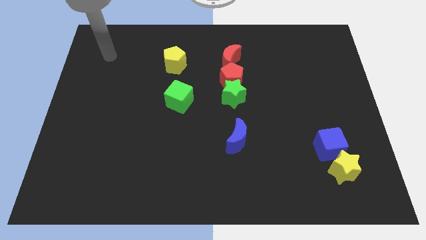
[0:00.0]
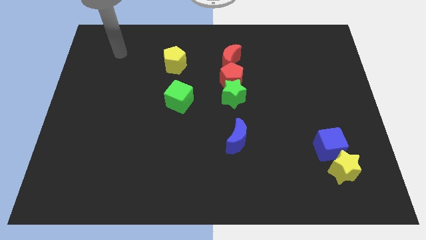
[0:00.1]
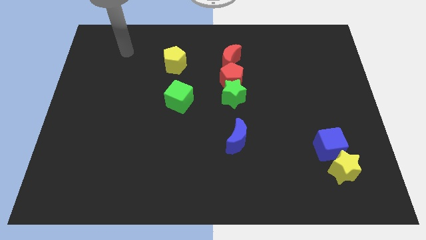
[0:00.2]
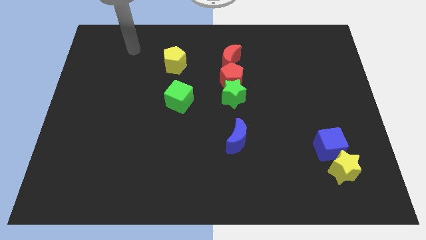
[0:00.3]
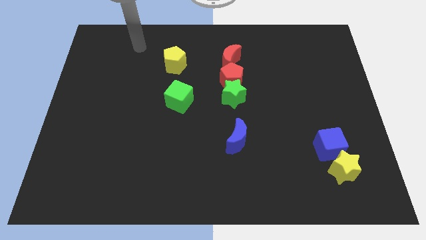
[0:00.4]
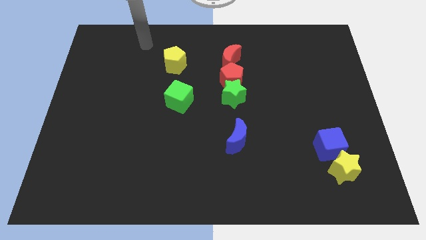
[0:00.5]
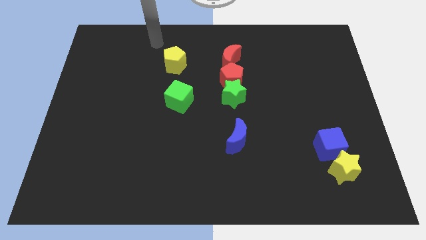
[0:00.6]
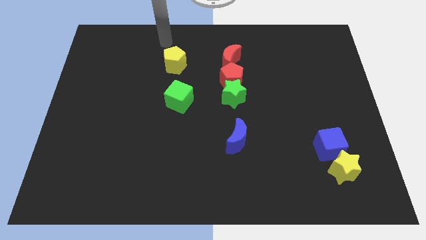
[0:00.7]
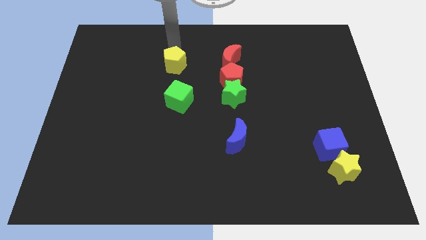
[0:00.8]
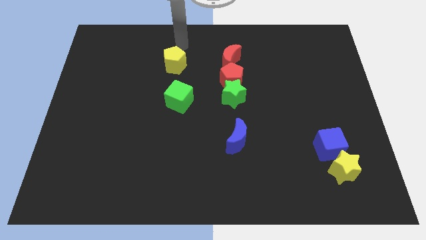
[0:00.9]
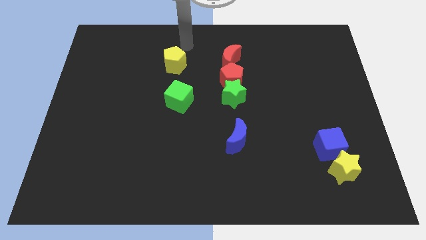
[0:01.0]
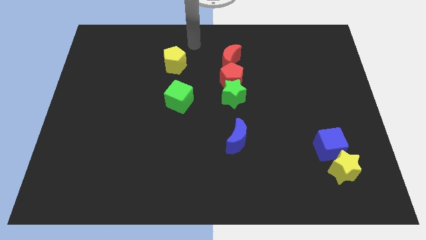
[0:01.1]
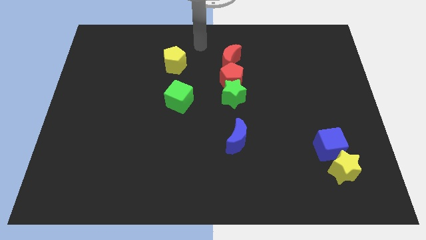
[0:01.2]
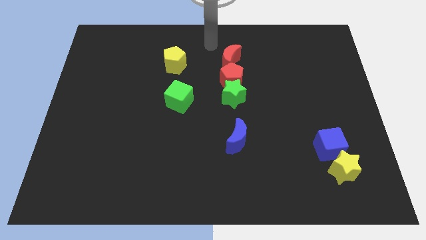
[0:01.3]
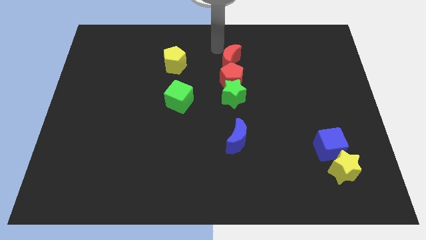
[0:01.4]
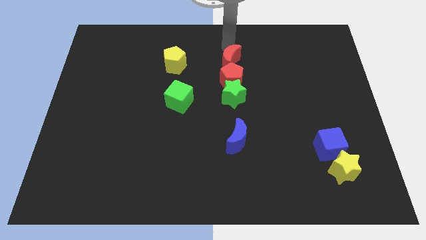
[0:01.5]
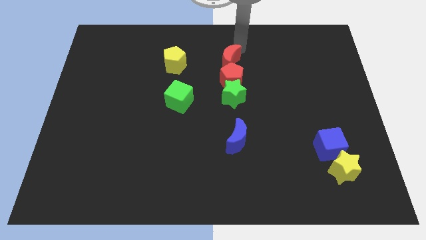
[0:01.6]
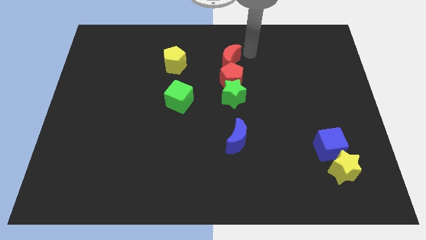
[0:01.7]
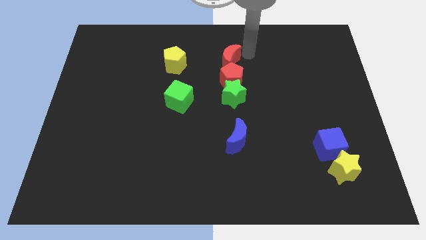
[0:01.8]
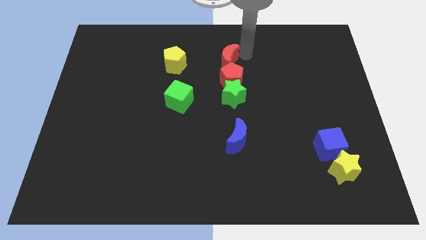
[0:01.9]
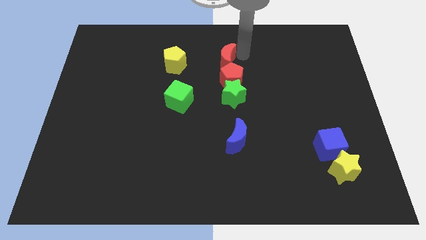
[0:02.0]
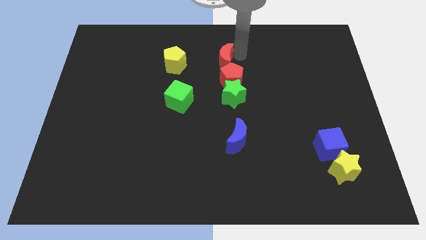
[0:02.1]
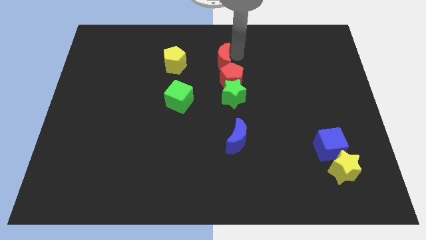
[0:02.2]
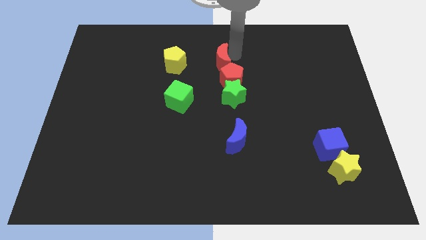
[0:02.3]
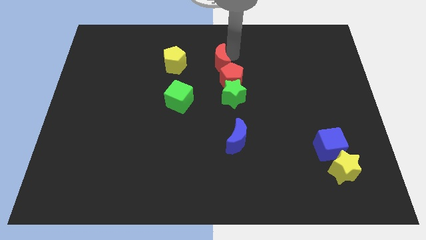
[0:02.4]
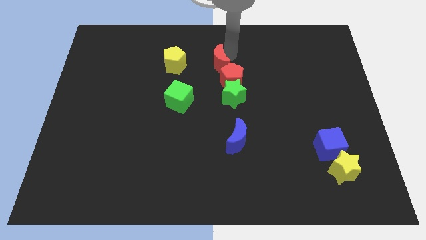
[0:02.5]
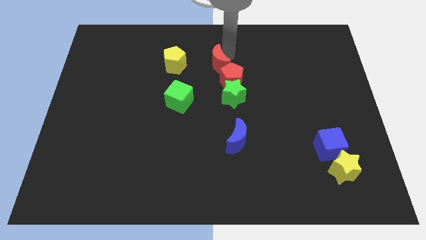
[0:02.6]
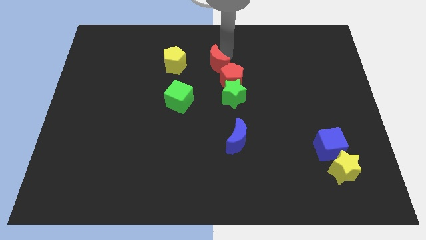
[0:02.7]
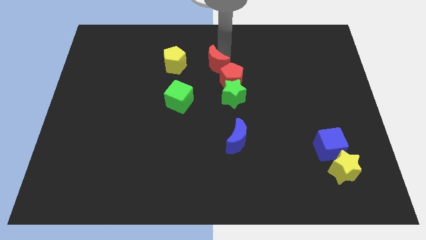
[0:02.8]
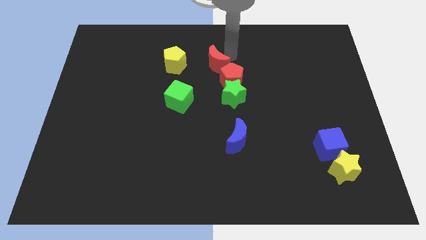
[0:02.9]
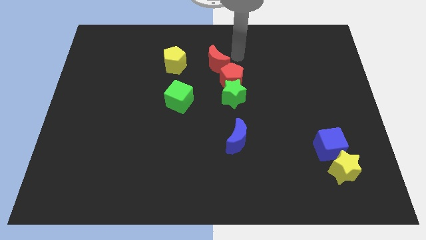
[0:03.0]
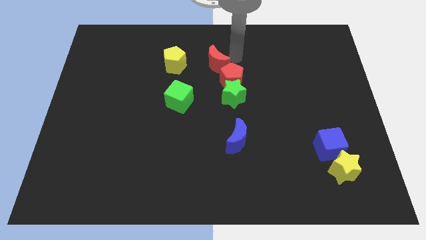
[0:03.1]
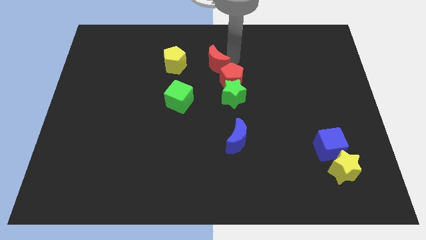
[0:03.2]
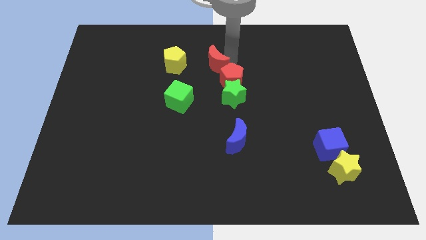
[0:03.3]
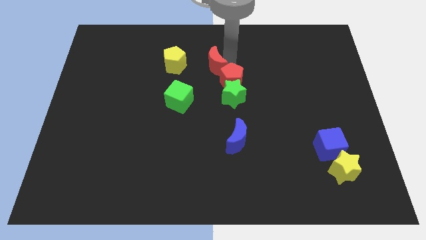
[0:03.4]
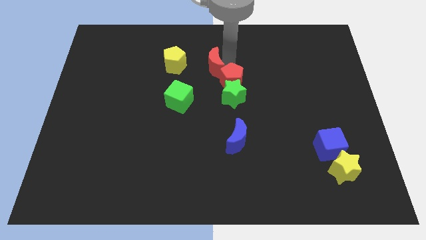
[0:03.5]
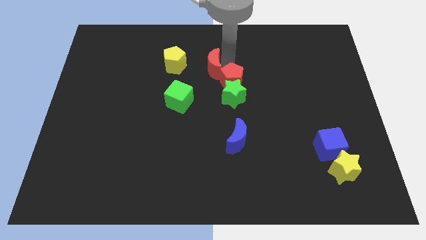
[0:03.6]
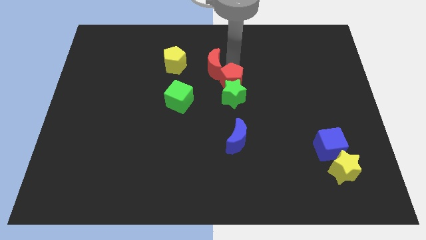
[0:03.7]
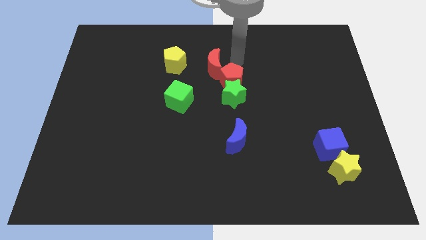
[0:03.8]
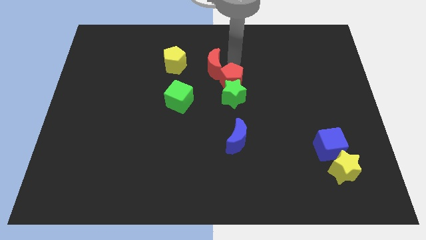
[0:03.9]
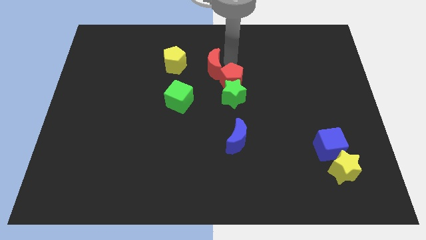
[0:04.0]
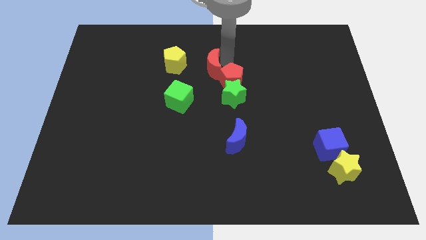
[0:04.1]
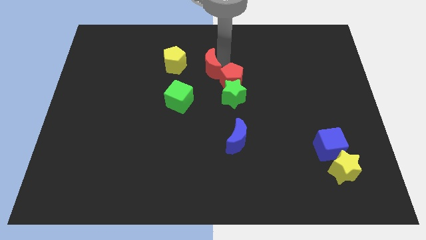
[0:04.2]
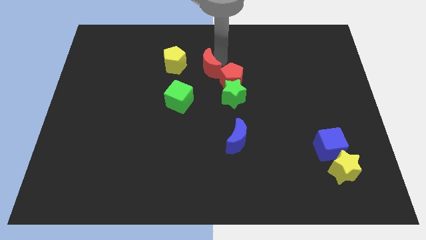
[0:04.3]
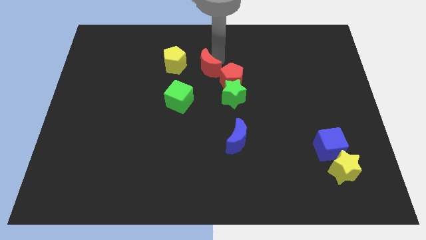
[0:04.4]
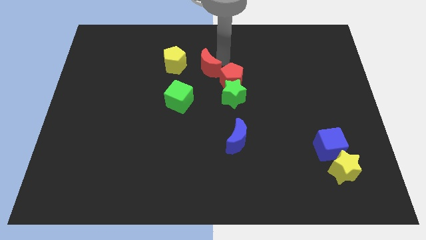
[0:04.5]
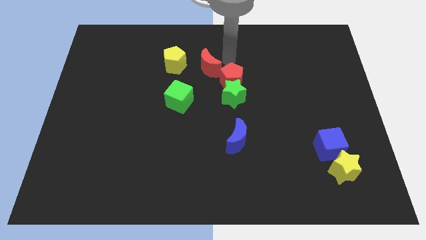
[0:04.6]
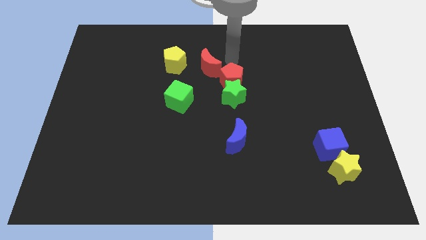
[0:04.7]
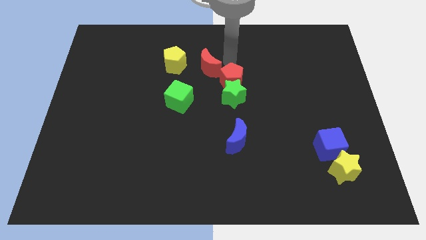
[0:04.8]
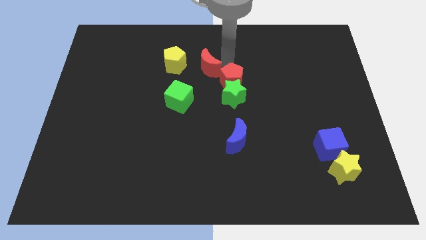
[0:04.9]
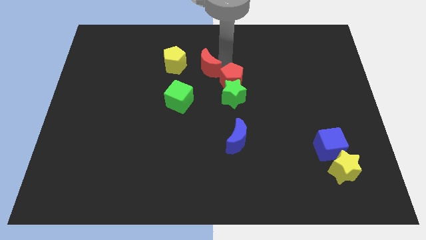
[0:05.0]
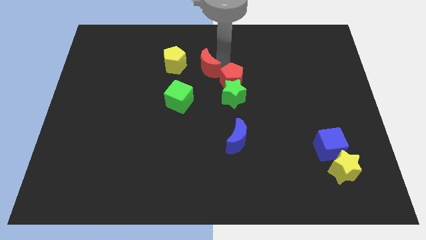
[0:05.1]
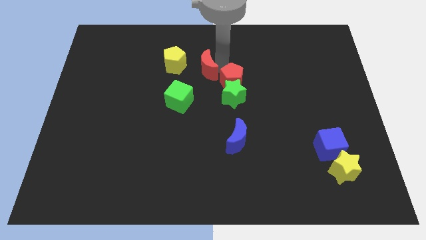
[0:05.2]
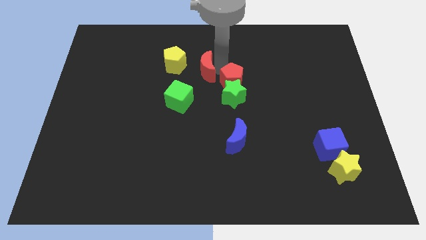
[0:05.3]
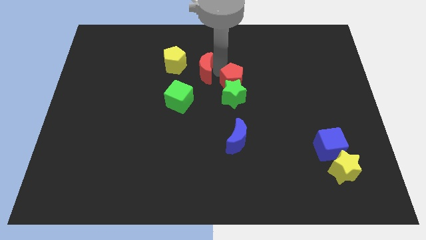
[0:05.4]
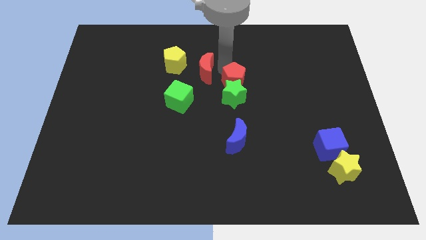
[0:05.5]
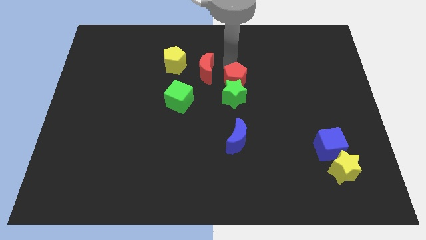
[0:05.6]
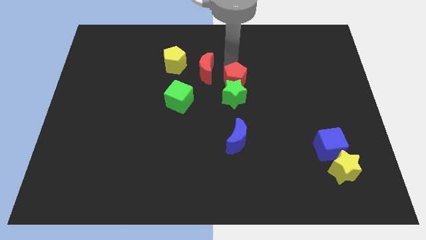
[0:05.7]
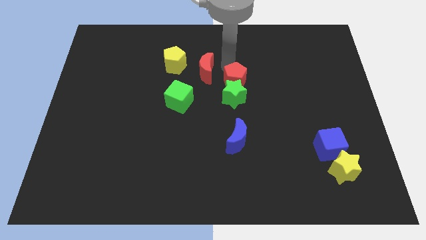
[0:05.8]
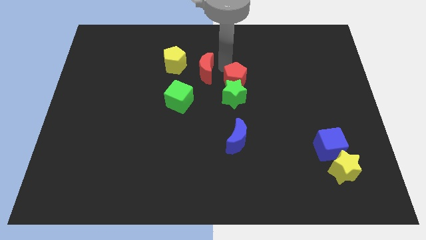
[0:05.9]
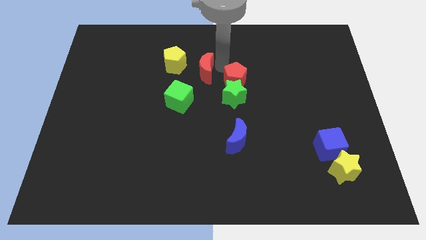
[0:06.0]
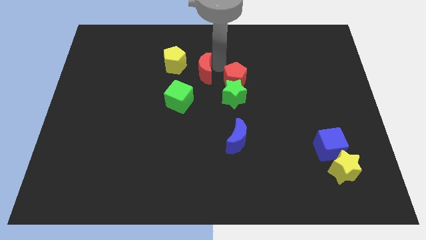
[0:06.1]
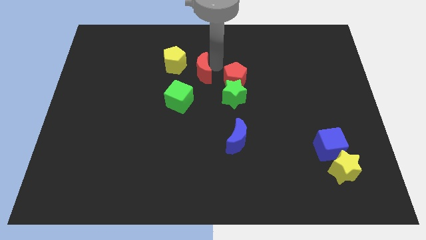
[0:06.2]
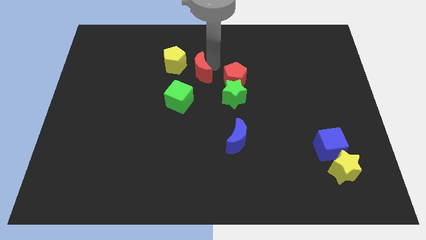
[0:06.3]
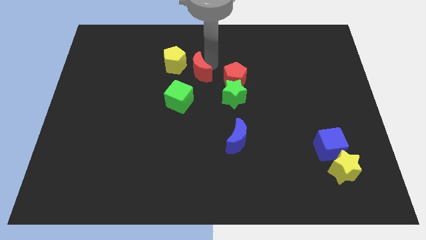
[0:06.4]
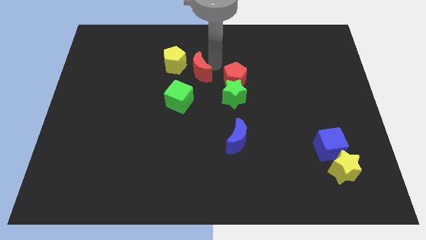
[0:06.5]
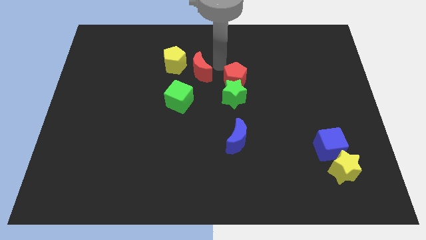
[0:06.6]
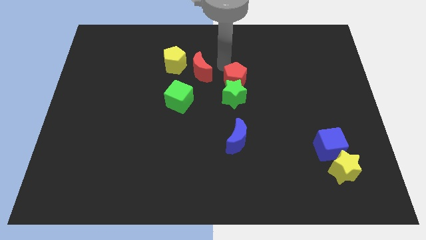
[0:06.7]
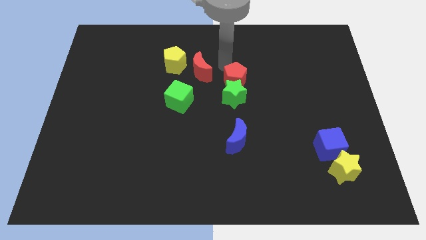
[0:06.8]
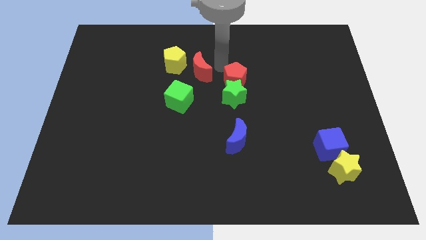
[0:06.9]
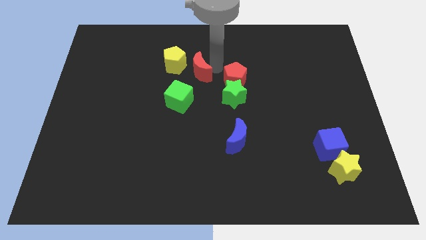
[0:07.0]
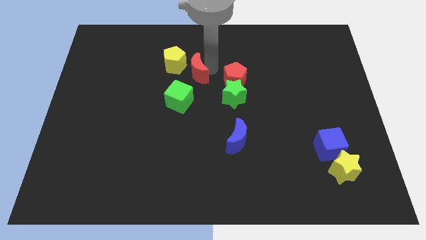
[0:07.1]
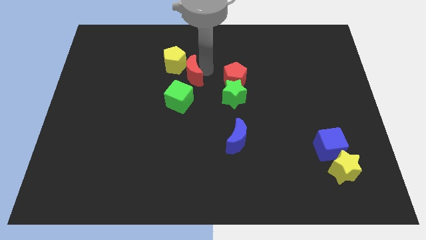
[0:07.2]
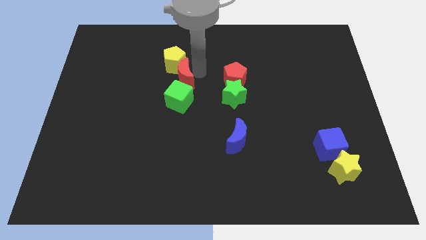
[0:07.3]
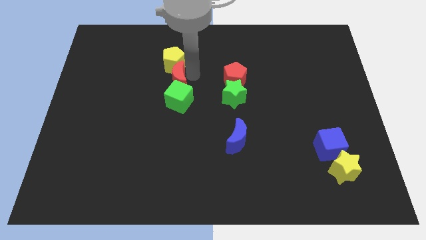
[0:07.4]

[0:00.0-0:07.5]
slide the red moon to the top left of the green cube
